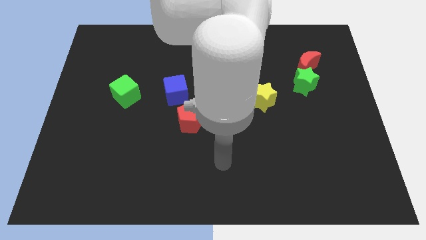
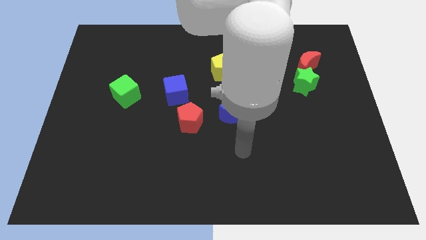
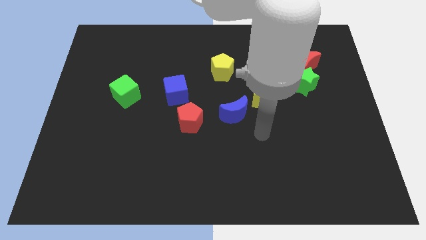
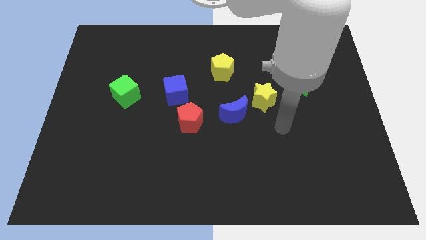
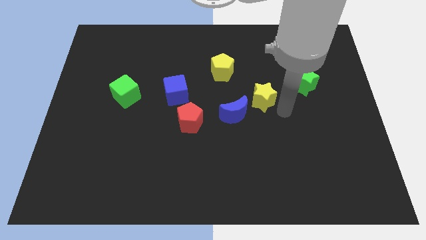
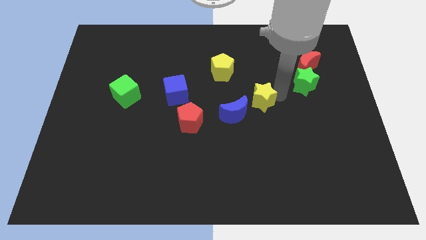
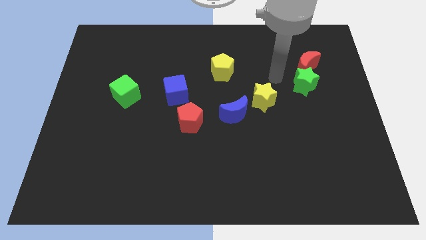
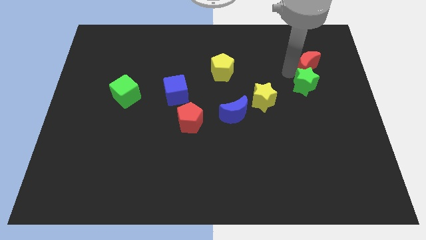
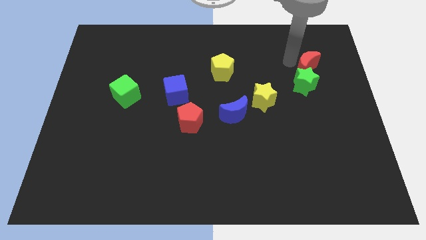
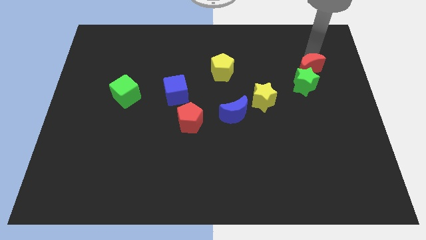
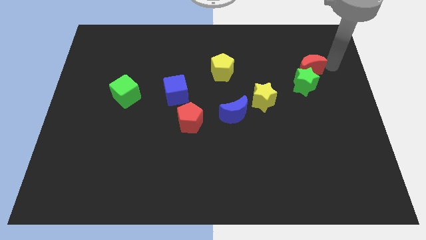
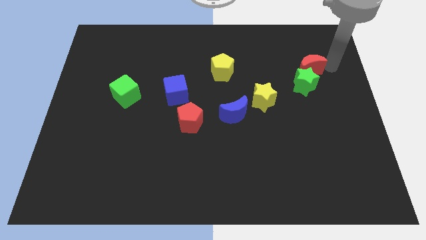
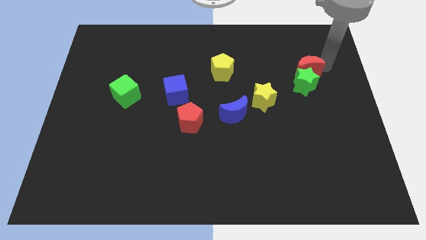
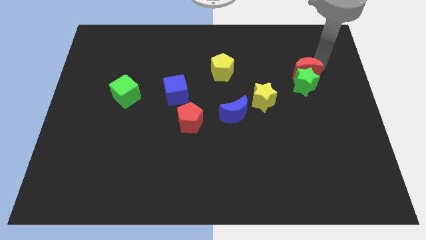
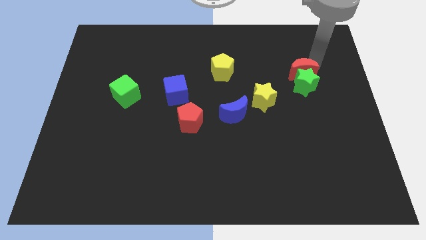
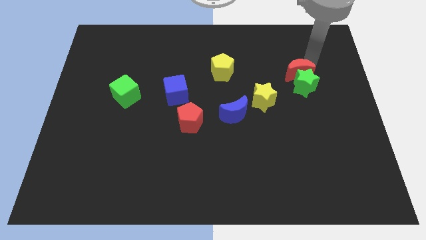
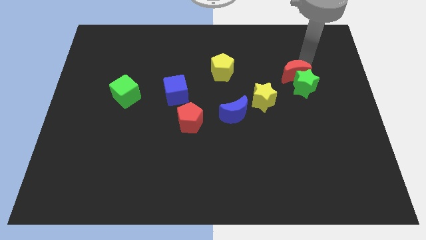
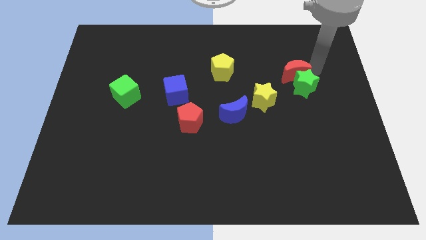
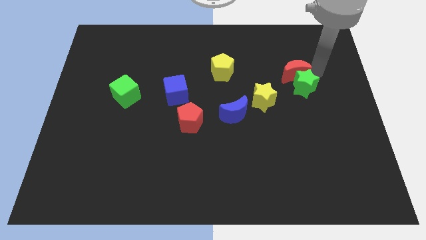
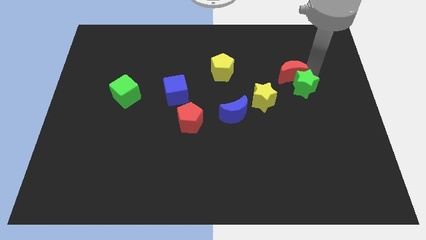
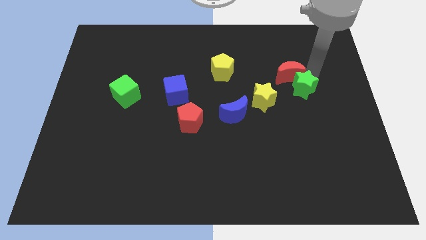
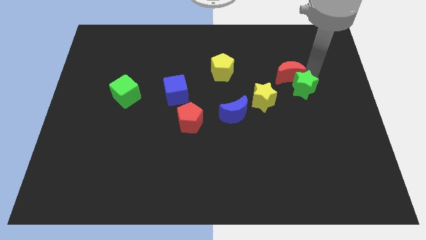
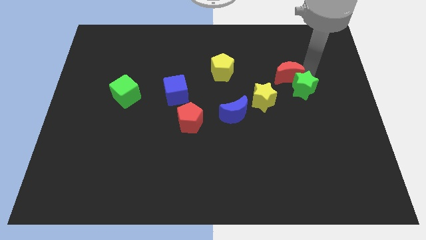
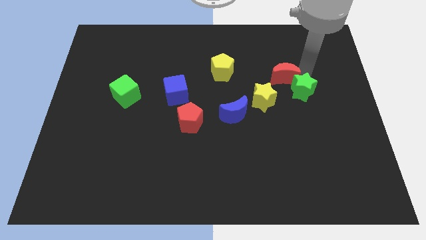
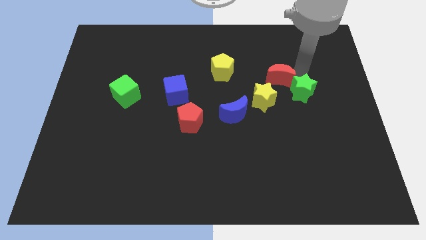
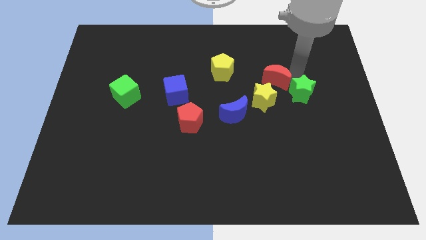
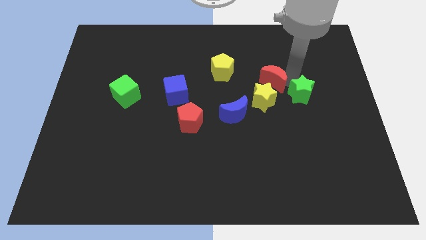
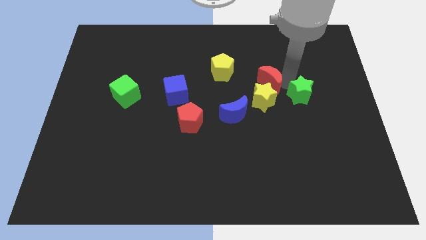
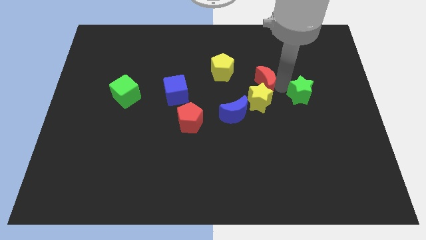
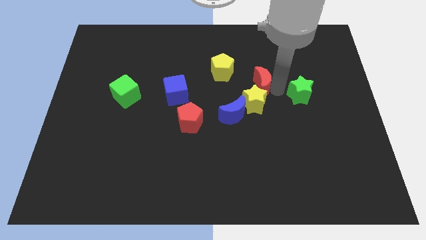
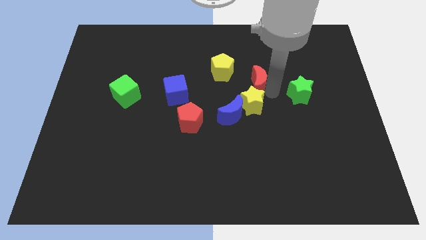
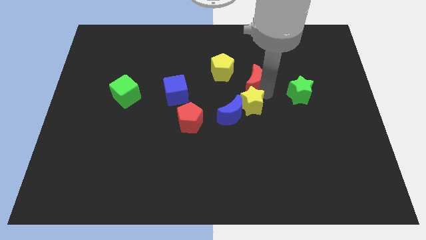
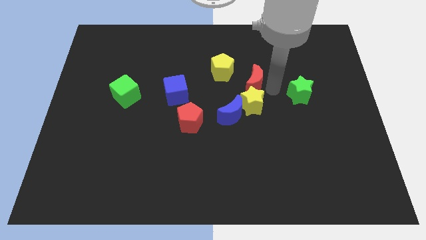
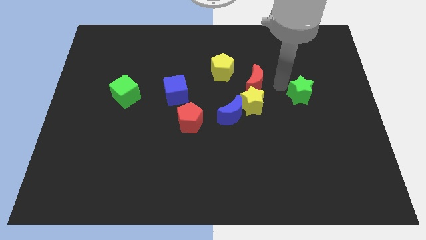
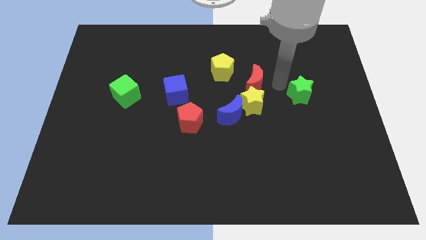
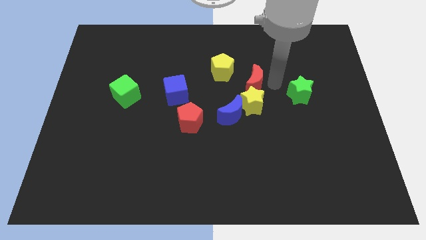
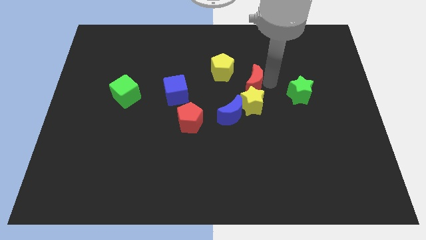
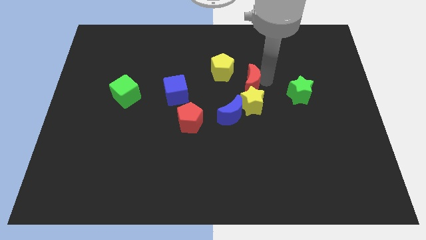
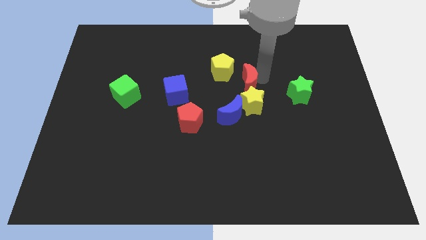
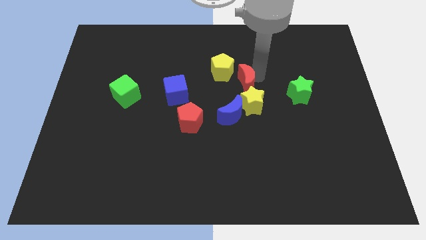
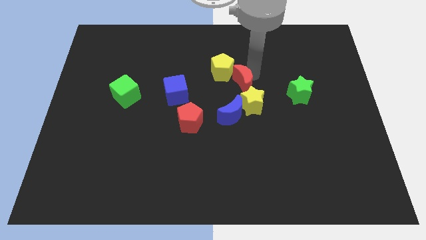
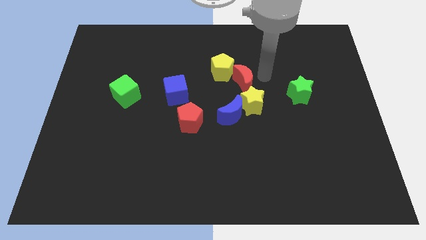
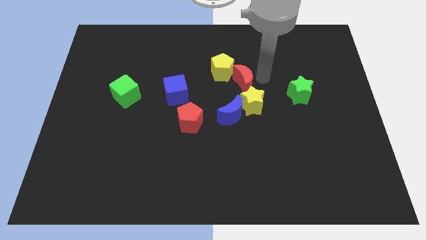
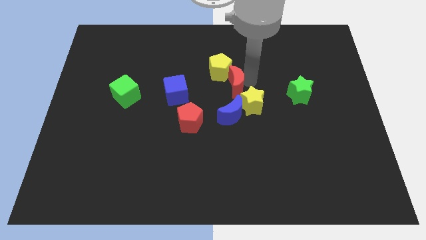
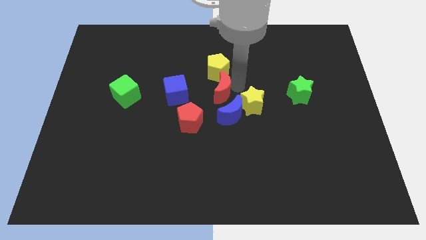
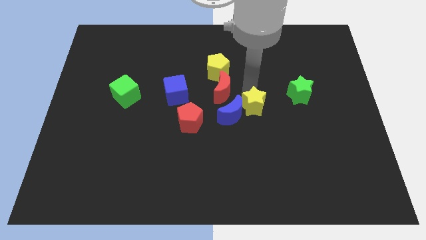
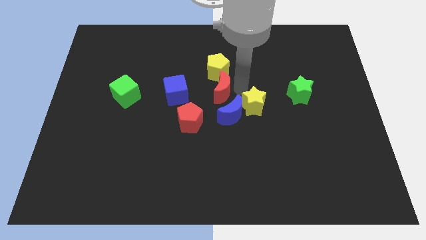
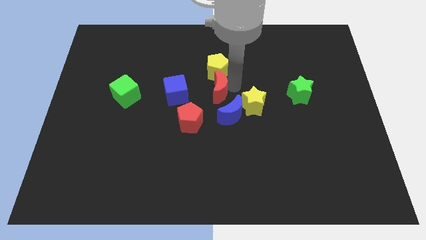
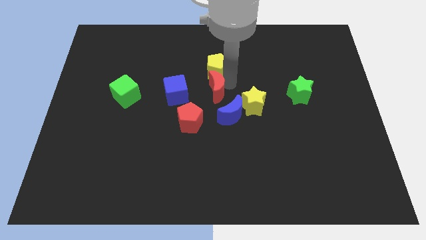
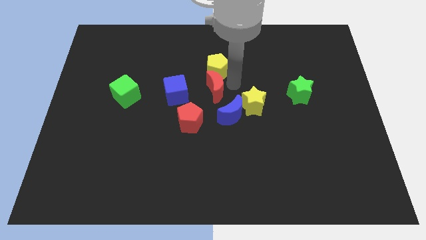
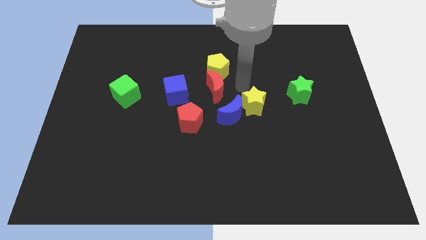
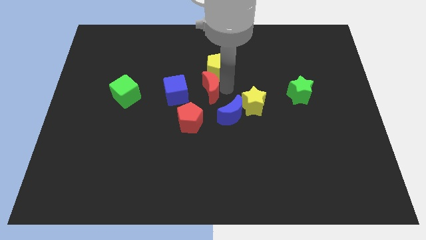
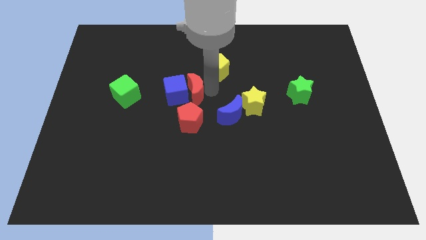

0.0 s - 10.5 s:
move the red moon towards the blue cube

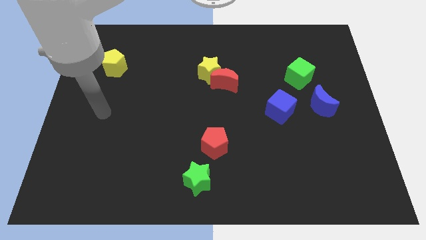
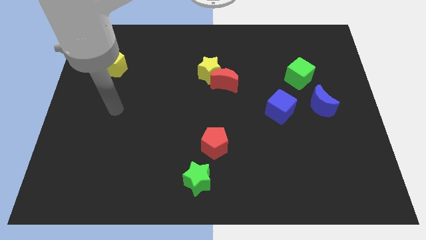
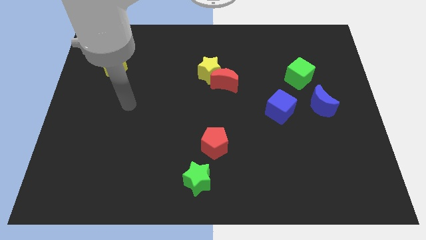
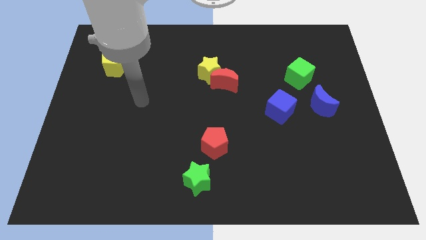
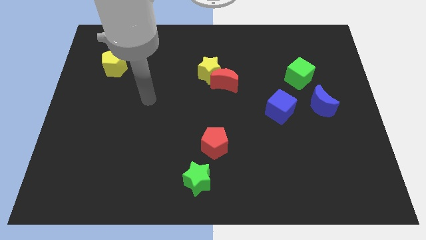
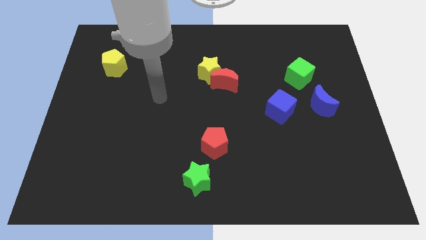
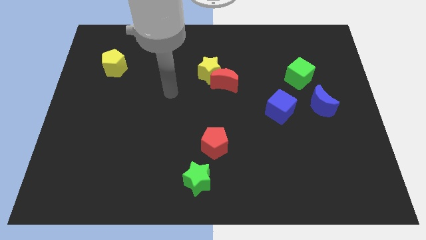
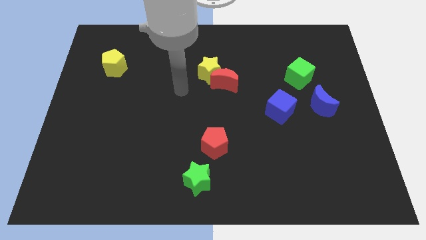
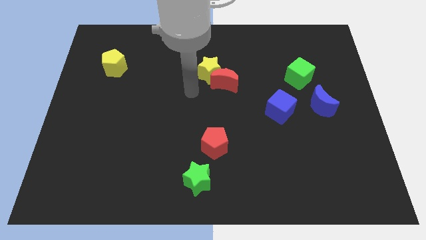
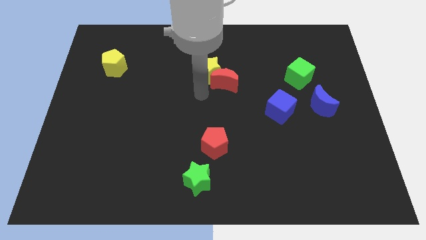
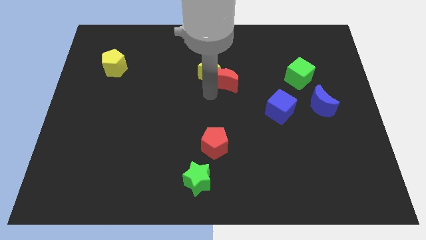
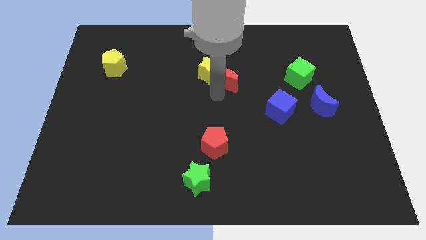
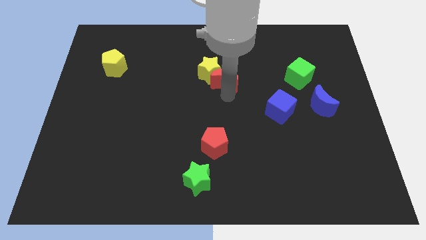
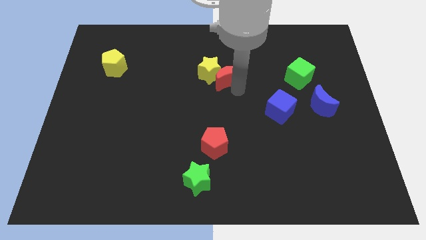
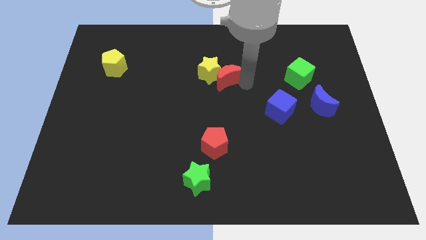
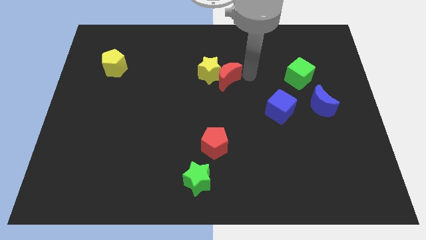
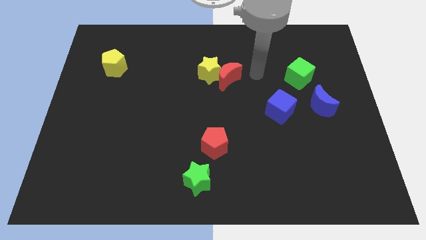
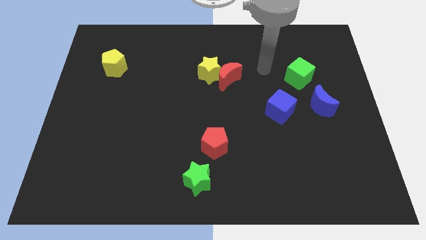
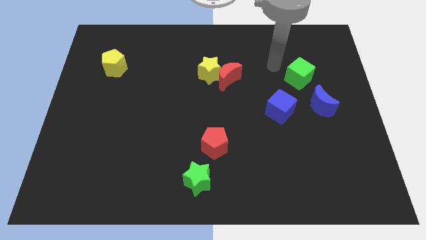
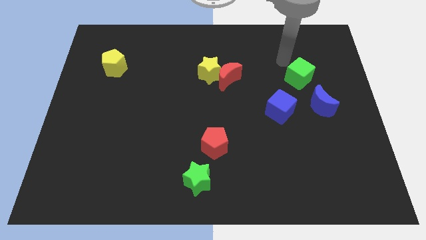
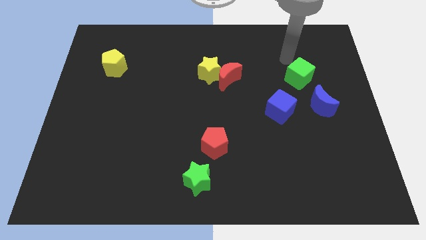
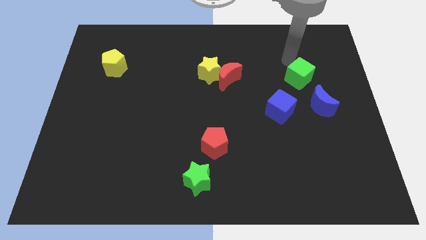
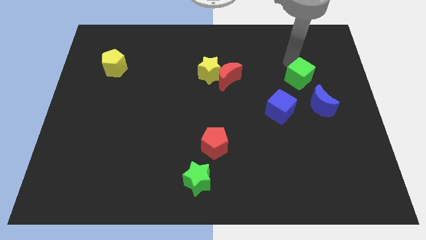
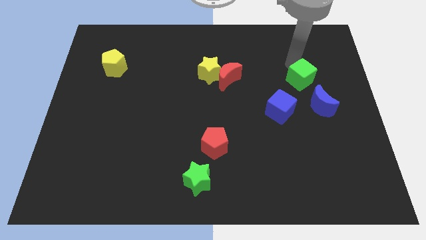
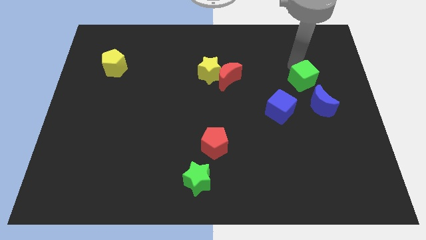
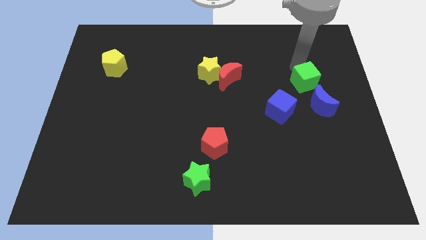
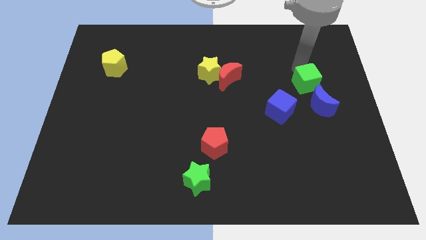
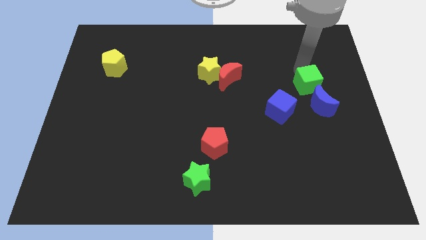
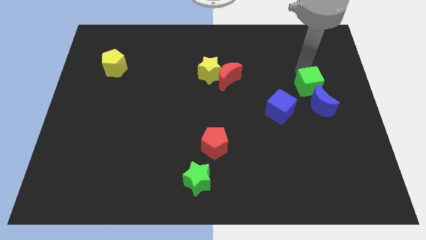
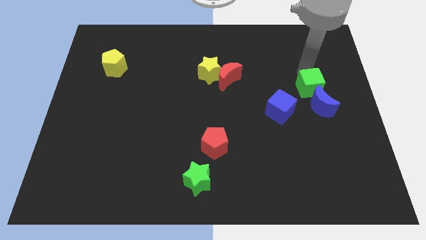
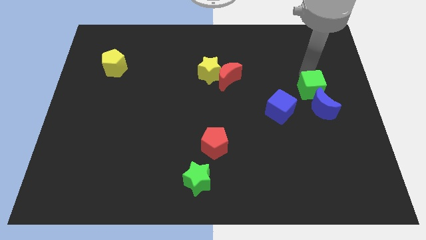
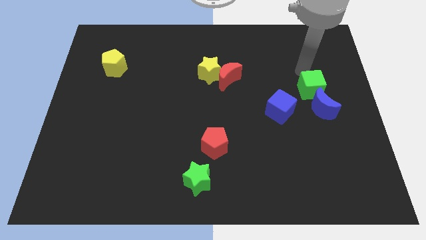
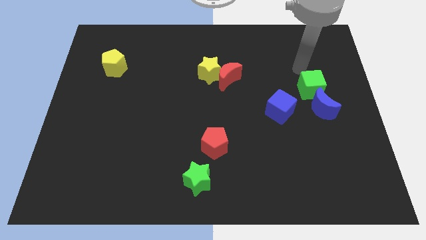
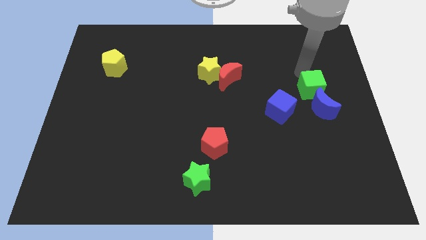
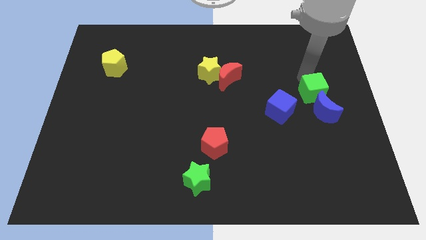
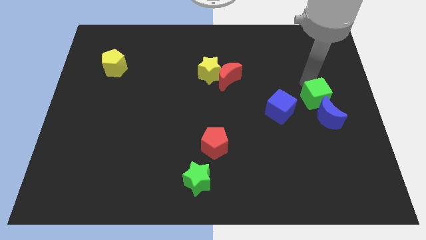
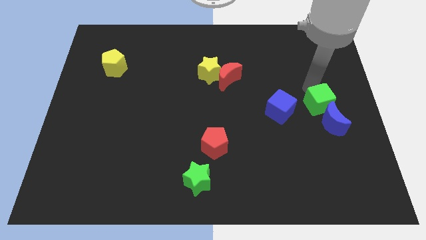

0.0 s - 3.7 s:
put the green cube next to the blue moon
